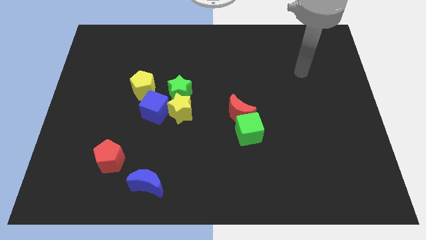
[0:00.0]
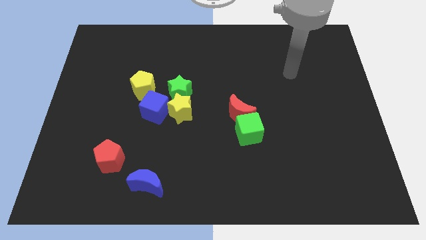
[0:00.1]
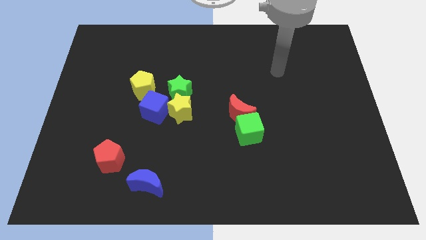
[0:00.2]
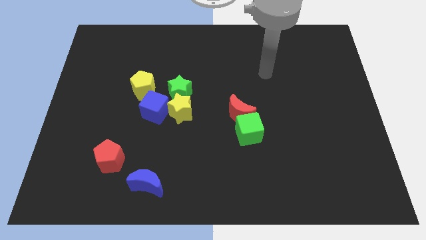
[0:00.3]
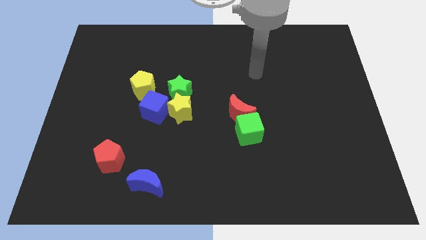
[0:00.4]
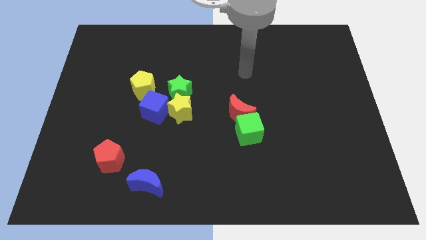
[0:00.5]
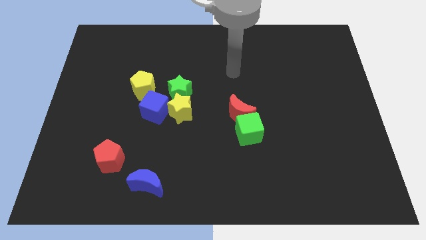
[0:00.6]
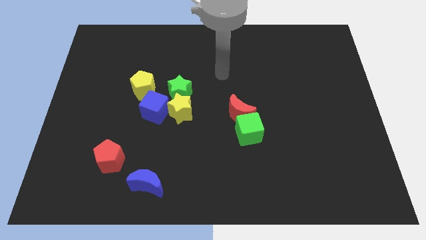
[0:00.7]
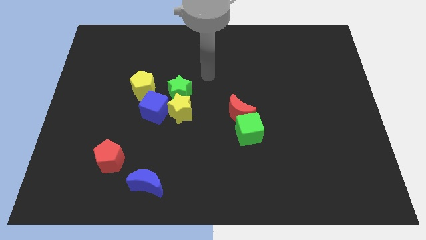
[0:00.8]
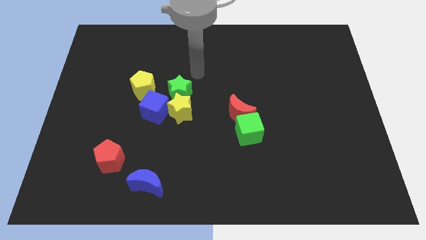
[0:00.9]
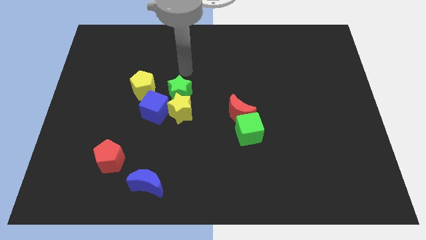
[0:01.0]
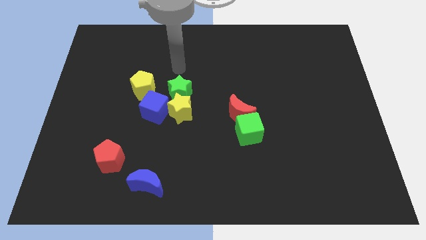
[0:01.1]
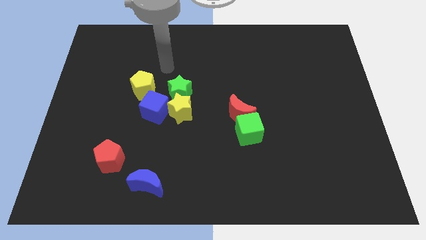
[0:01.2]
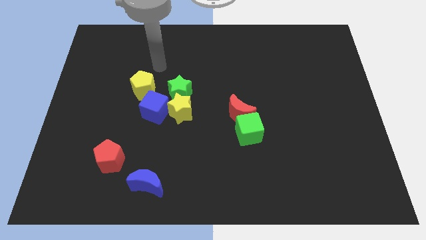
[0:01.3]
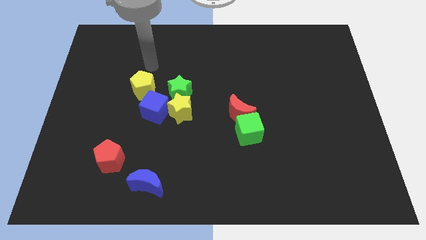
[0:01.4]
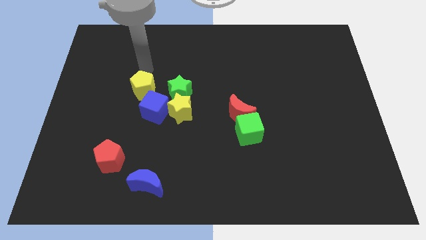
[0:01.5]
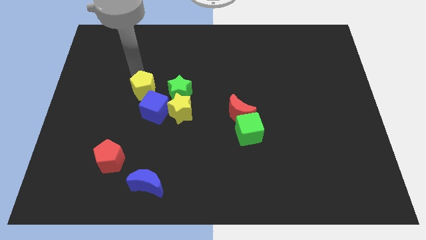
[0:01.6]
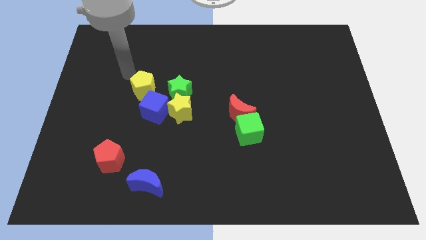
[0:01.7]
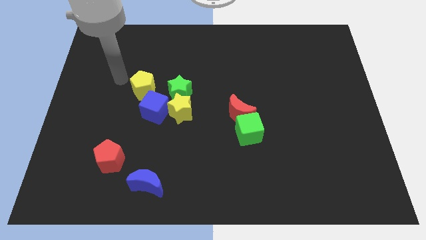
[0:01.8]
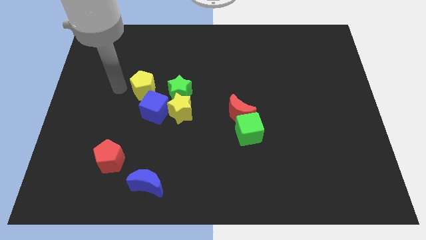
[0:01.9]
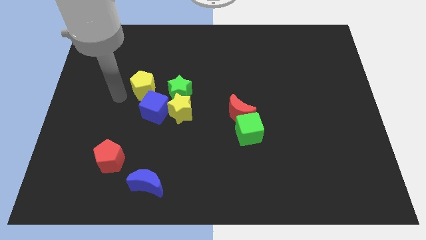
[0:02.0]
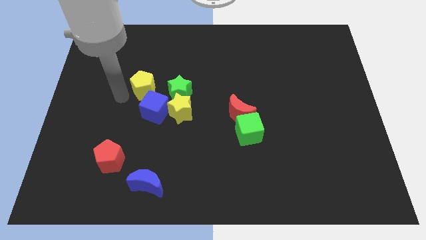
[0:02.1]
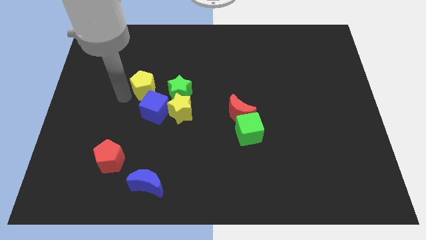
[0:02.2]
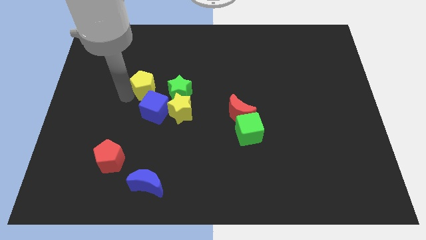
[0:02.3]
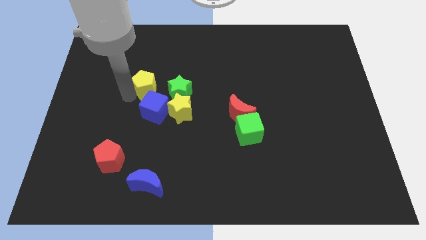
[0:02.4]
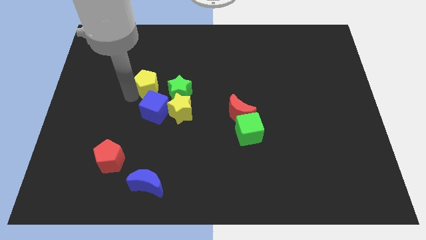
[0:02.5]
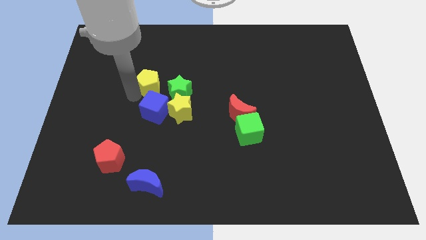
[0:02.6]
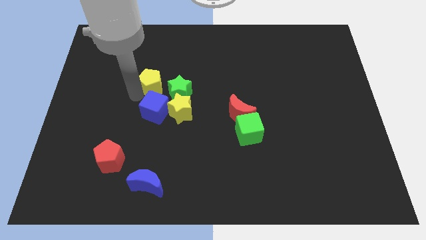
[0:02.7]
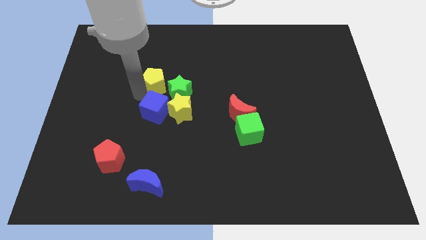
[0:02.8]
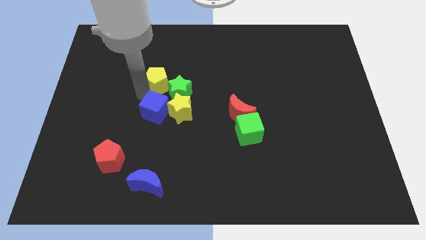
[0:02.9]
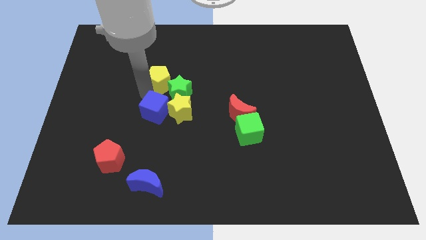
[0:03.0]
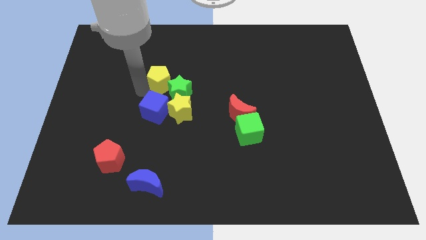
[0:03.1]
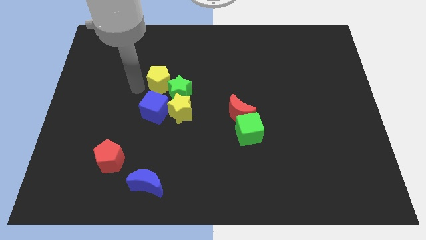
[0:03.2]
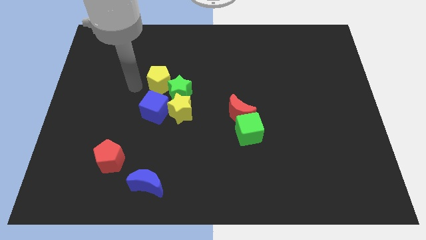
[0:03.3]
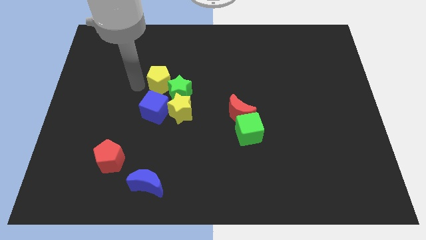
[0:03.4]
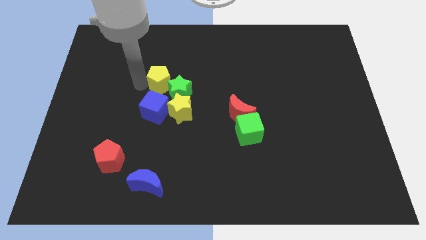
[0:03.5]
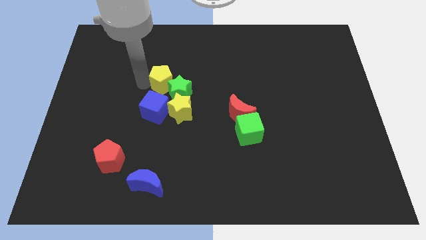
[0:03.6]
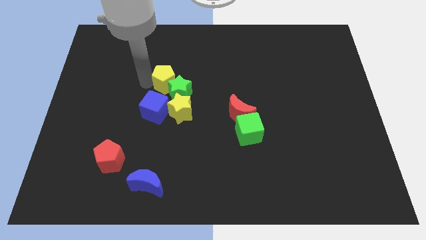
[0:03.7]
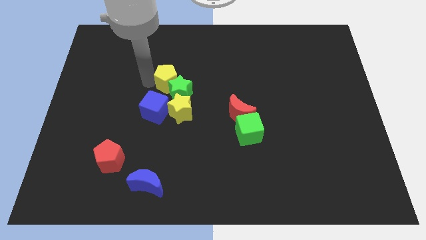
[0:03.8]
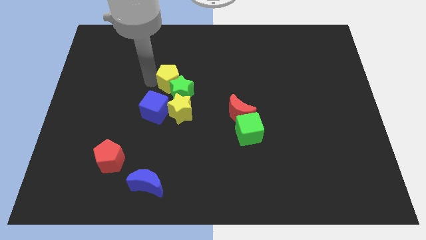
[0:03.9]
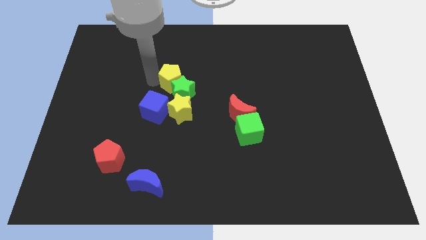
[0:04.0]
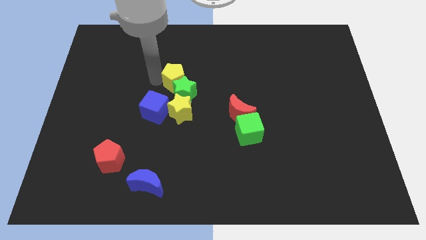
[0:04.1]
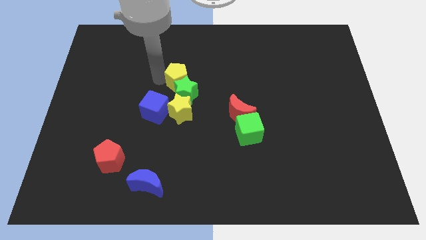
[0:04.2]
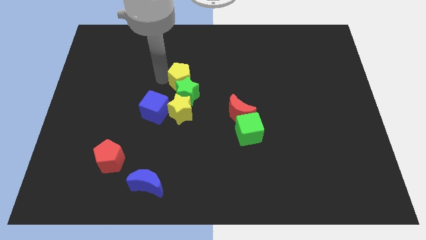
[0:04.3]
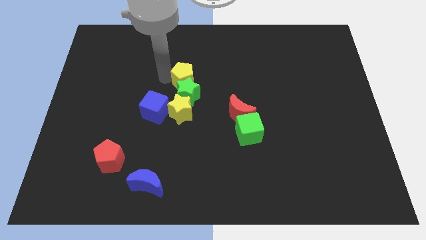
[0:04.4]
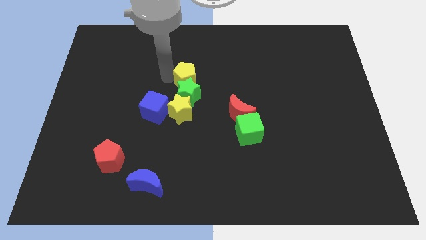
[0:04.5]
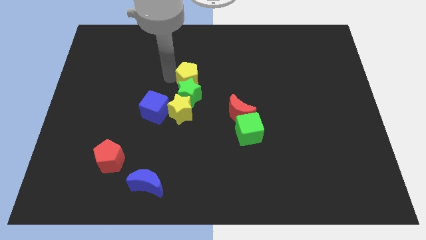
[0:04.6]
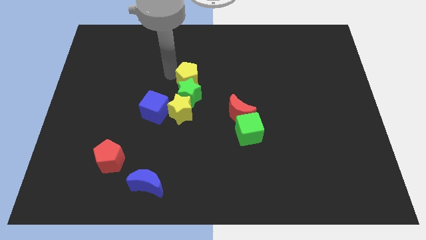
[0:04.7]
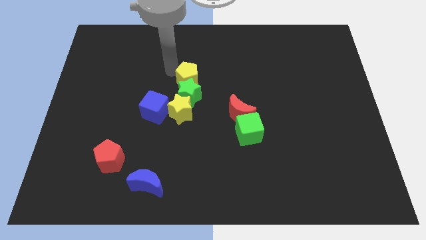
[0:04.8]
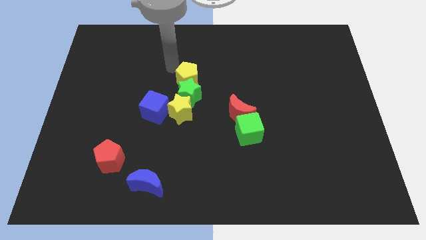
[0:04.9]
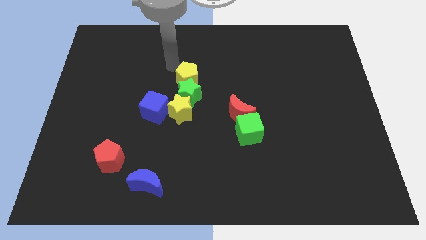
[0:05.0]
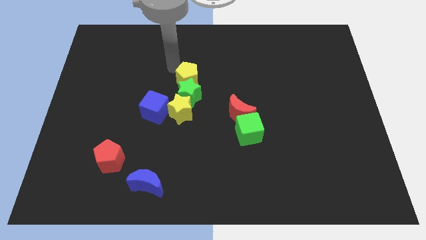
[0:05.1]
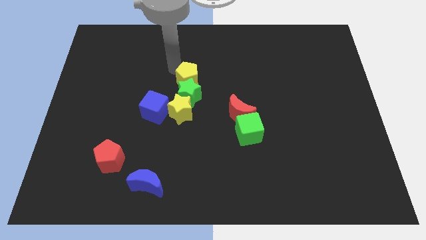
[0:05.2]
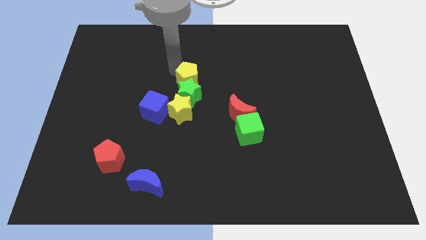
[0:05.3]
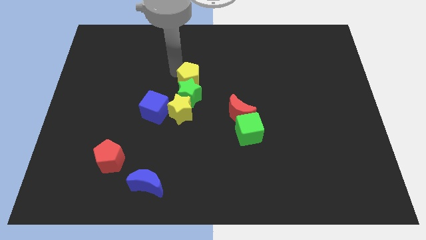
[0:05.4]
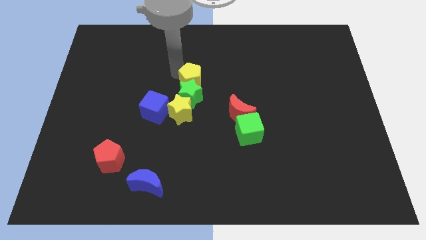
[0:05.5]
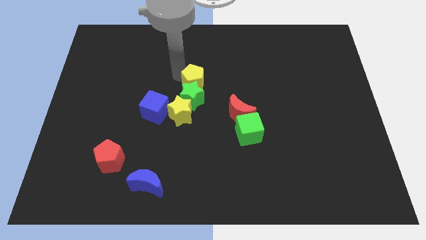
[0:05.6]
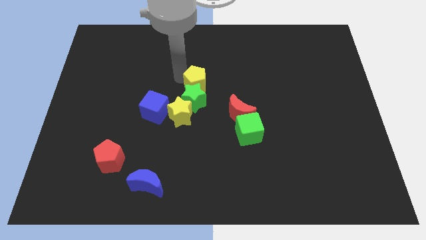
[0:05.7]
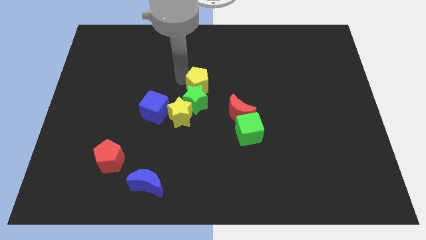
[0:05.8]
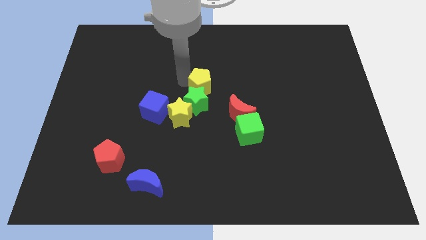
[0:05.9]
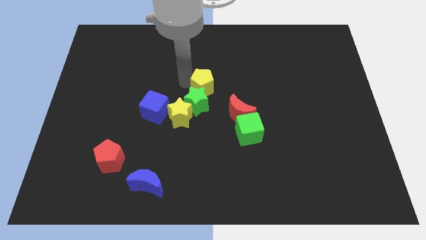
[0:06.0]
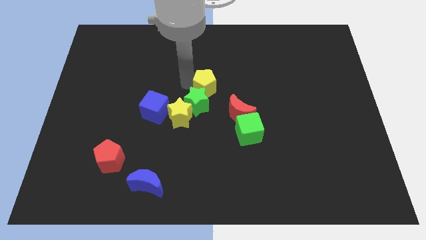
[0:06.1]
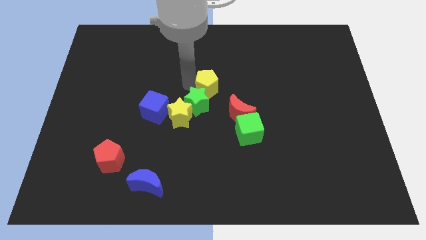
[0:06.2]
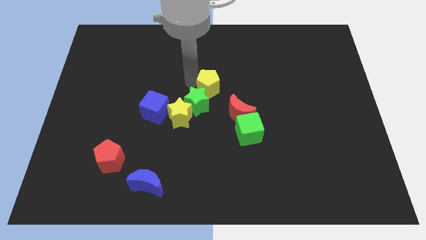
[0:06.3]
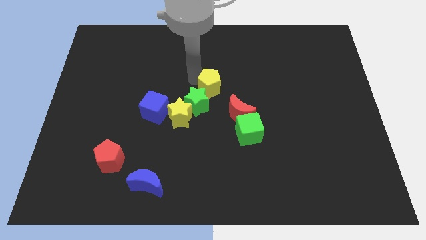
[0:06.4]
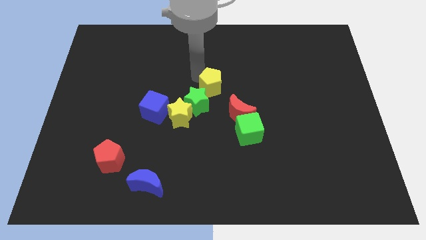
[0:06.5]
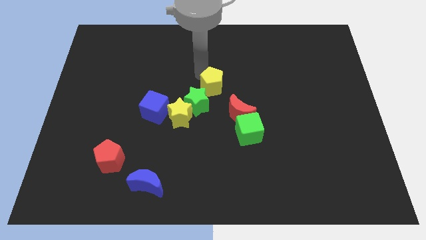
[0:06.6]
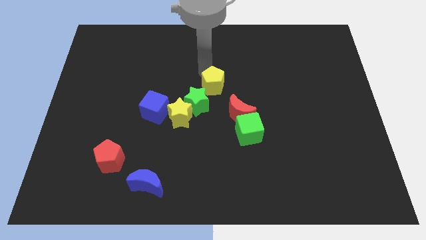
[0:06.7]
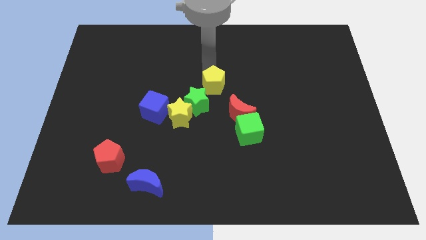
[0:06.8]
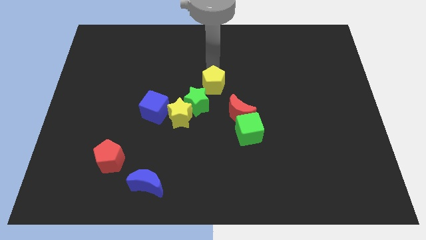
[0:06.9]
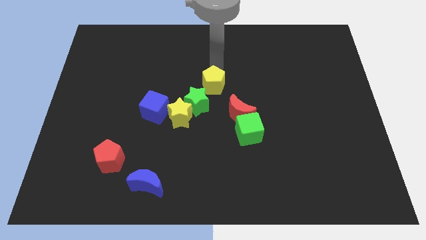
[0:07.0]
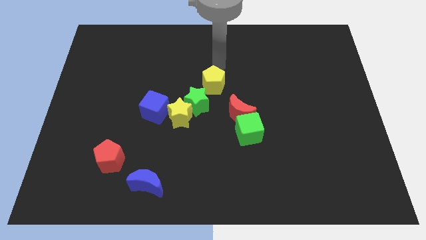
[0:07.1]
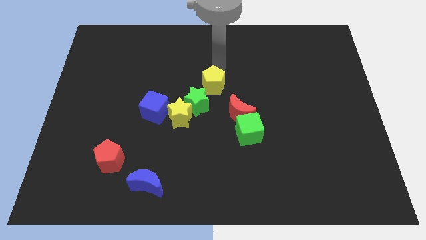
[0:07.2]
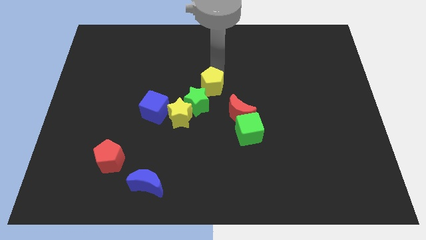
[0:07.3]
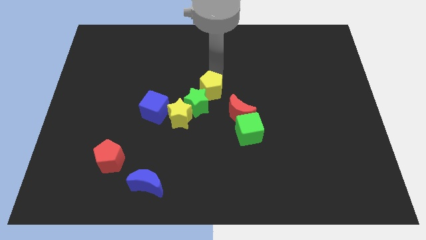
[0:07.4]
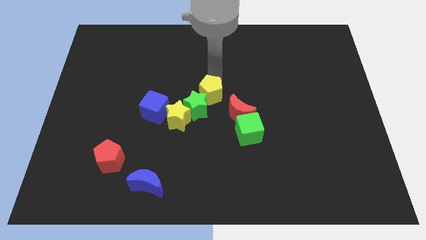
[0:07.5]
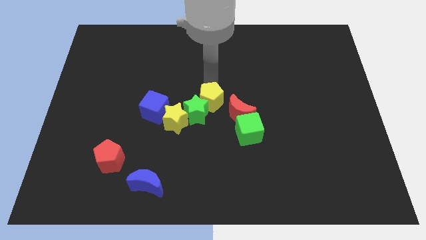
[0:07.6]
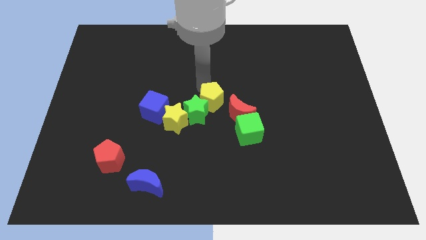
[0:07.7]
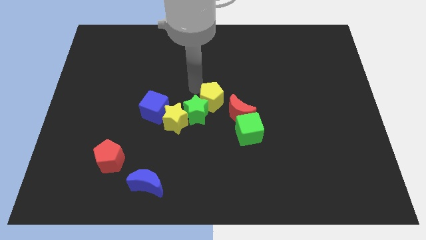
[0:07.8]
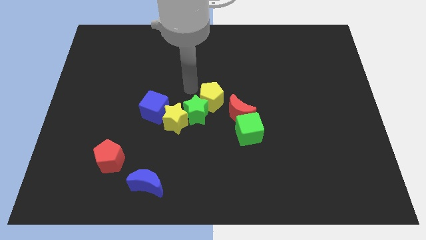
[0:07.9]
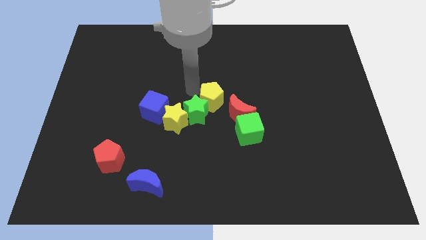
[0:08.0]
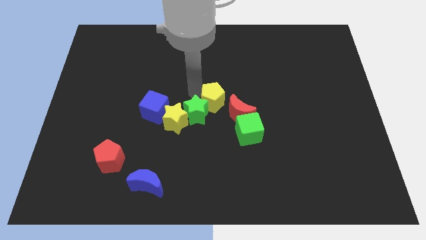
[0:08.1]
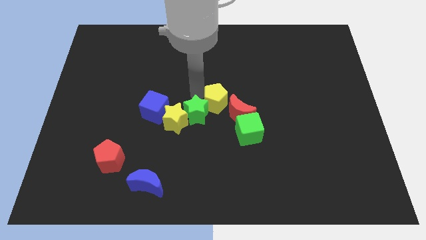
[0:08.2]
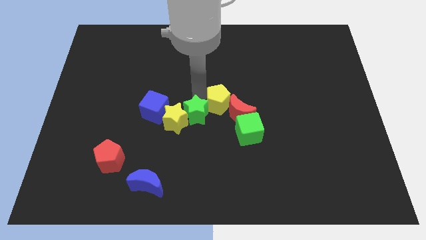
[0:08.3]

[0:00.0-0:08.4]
put the yellow pentagon to the red moon
